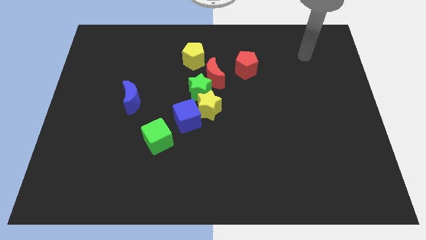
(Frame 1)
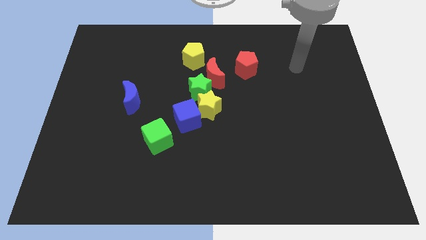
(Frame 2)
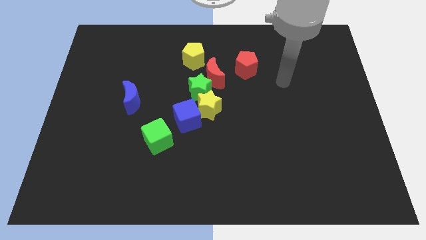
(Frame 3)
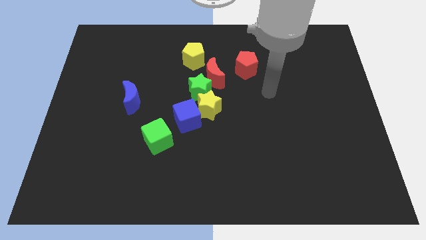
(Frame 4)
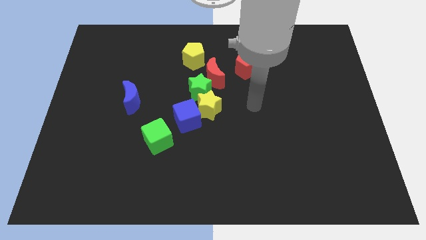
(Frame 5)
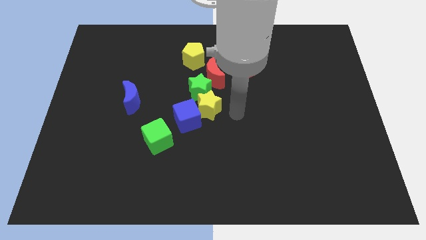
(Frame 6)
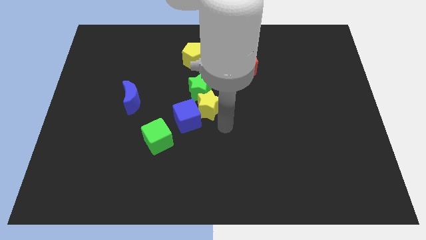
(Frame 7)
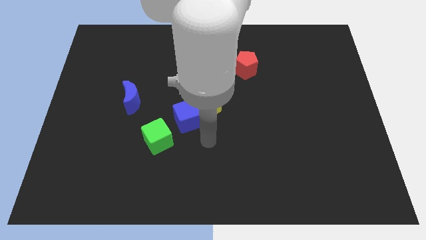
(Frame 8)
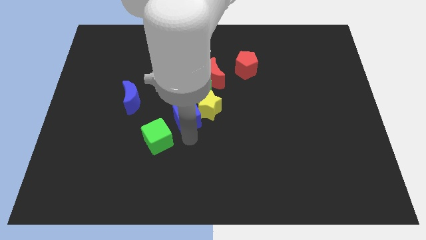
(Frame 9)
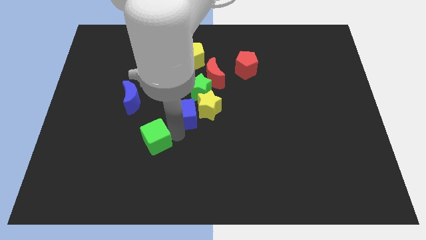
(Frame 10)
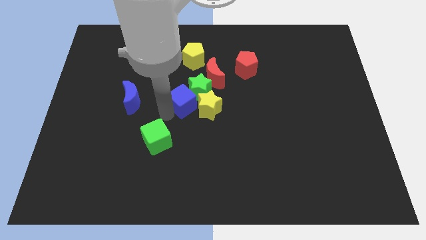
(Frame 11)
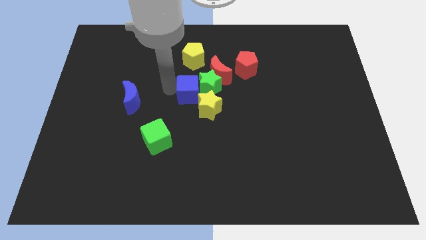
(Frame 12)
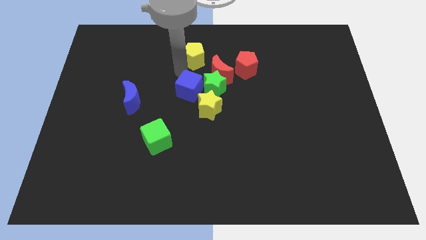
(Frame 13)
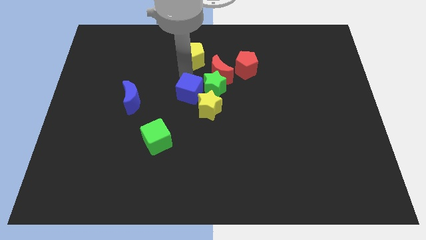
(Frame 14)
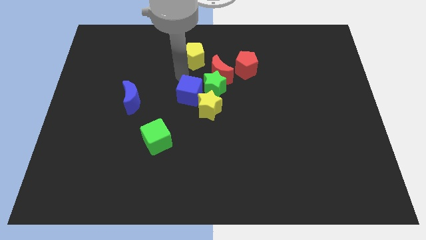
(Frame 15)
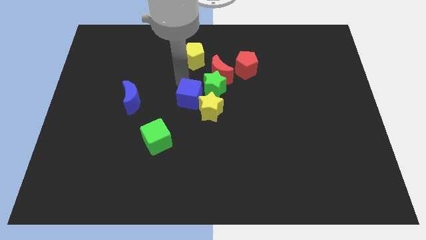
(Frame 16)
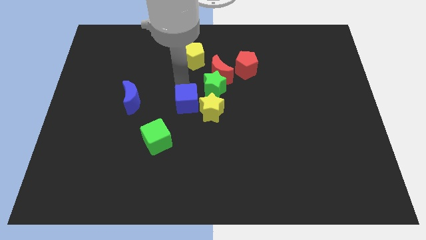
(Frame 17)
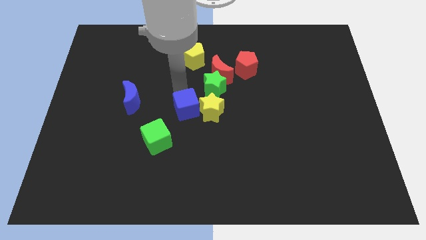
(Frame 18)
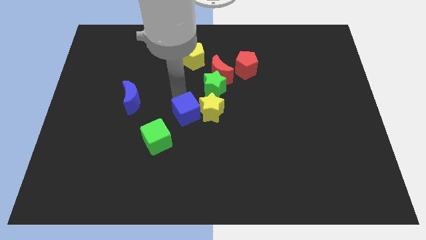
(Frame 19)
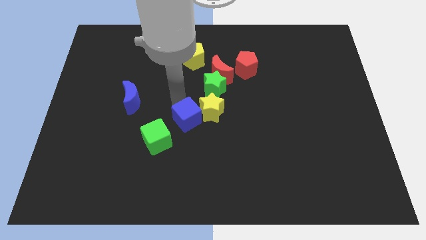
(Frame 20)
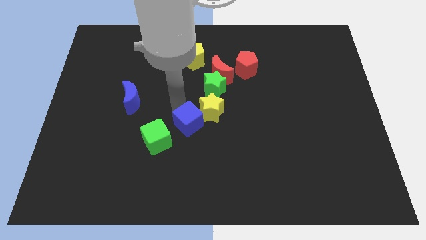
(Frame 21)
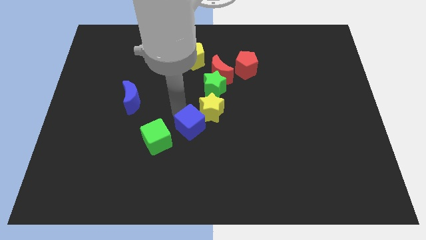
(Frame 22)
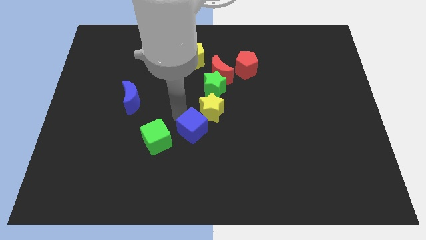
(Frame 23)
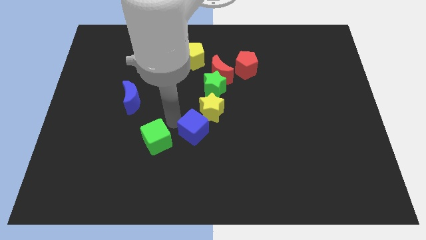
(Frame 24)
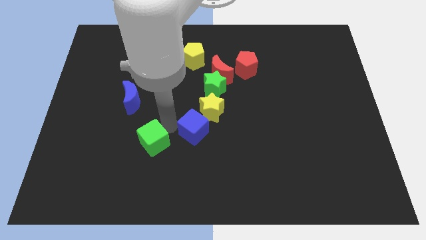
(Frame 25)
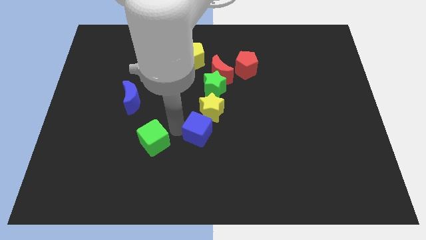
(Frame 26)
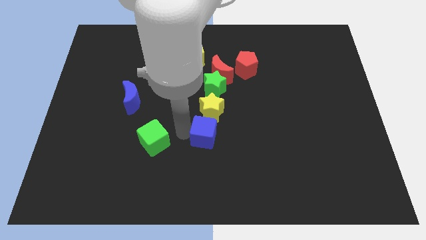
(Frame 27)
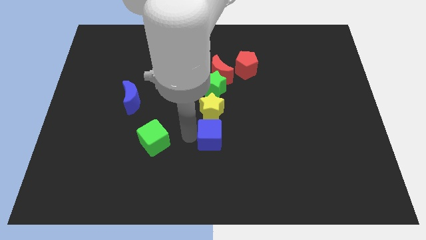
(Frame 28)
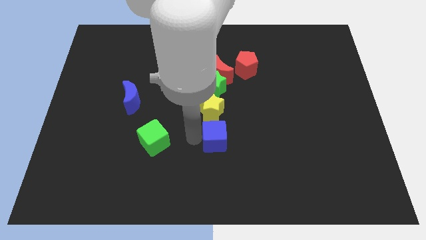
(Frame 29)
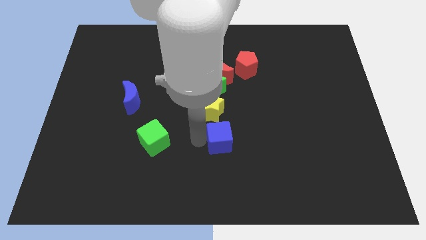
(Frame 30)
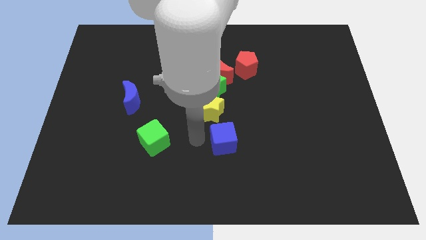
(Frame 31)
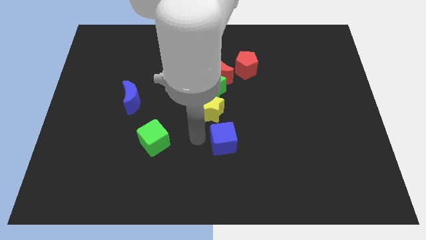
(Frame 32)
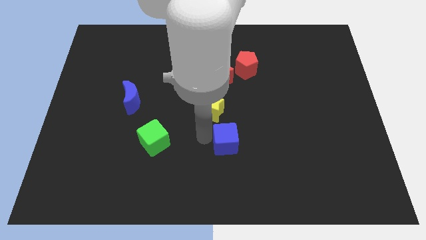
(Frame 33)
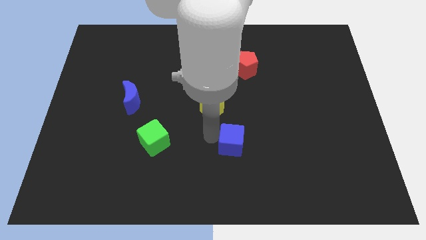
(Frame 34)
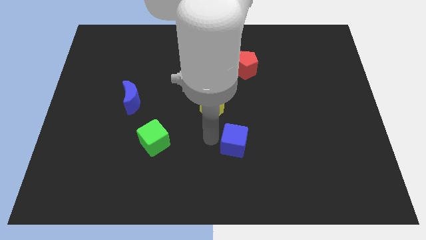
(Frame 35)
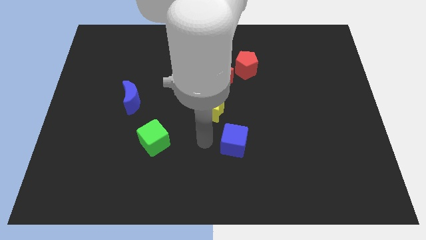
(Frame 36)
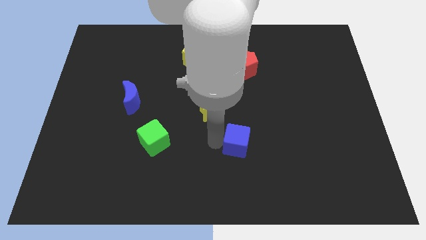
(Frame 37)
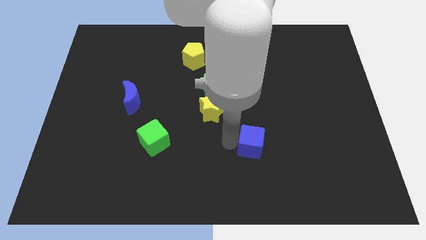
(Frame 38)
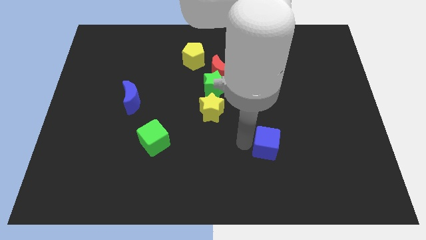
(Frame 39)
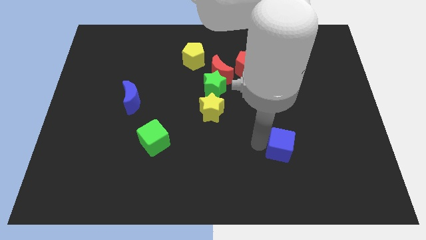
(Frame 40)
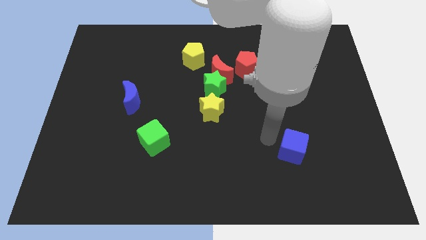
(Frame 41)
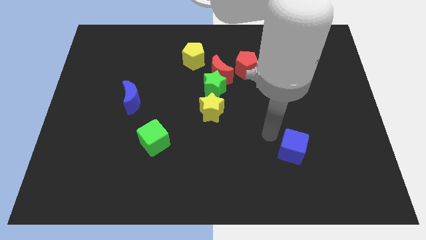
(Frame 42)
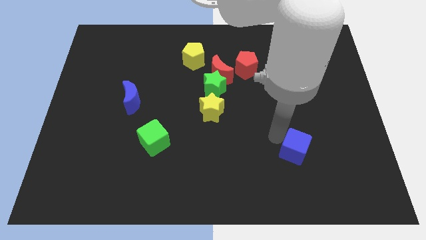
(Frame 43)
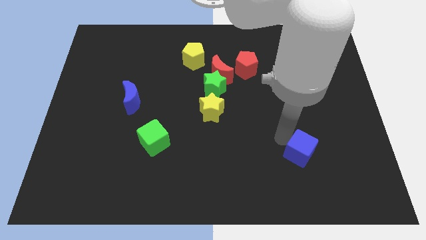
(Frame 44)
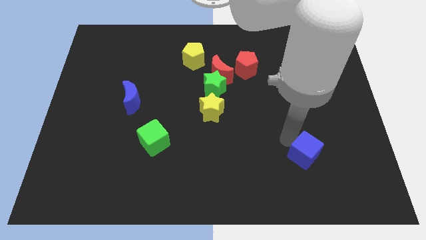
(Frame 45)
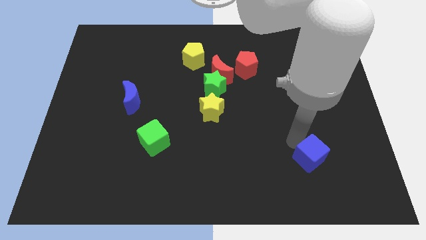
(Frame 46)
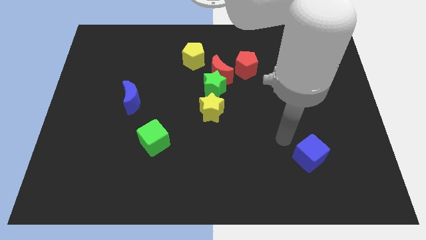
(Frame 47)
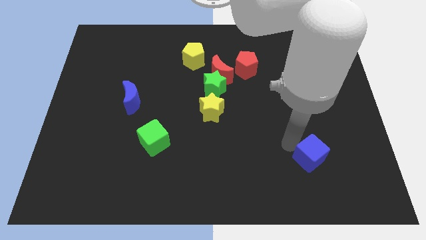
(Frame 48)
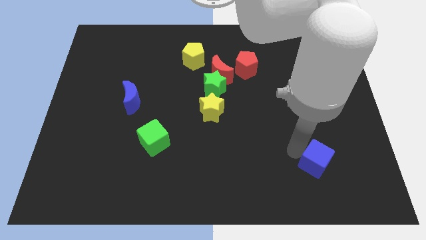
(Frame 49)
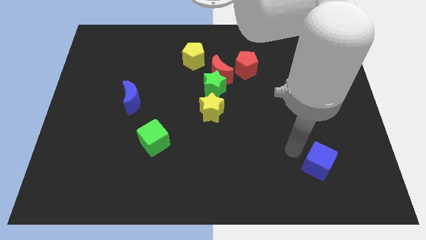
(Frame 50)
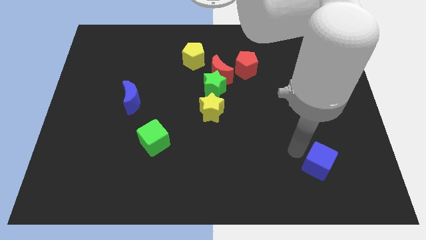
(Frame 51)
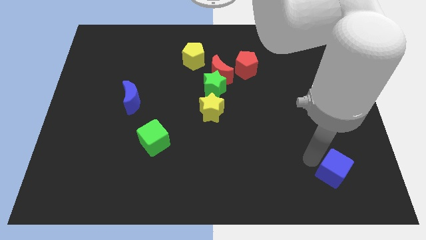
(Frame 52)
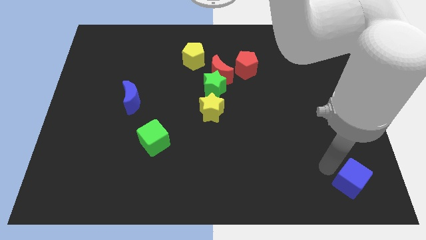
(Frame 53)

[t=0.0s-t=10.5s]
slide the blue cube to the bottom right corner
